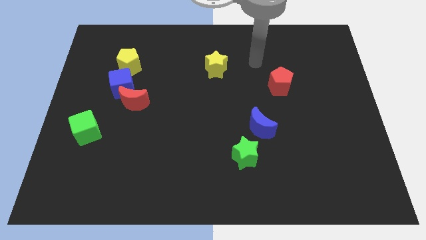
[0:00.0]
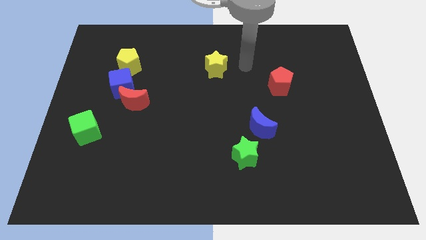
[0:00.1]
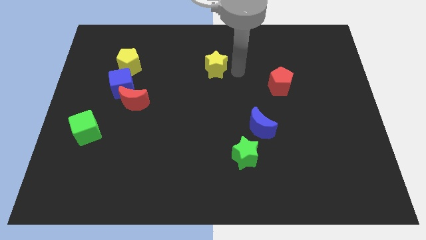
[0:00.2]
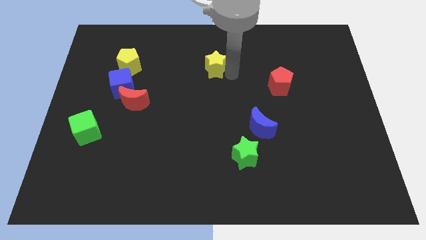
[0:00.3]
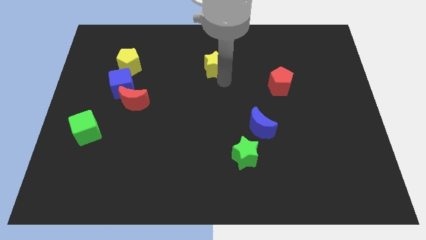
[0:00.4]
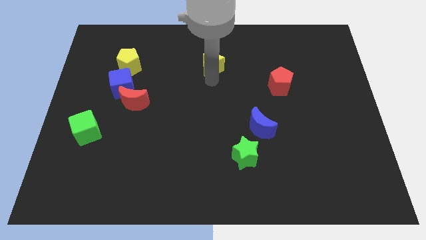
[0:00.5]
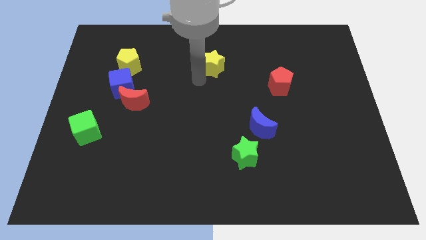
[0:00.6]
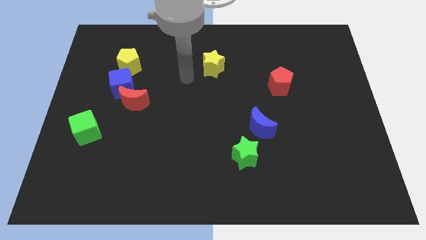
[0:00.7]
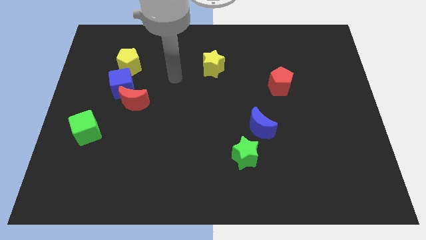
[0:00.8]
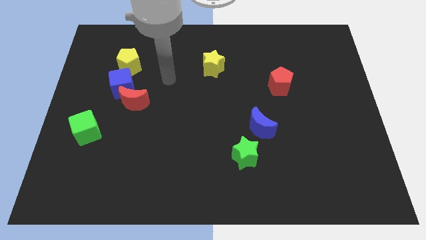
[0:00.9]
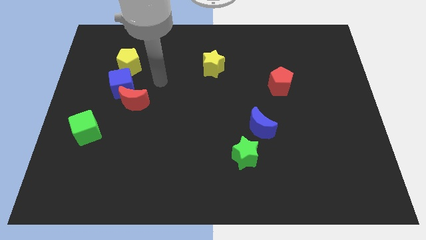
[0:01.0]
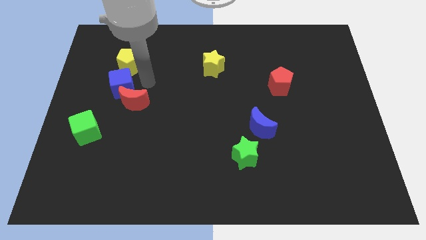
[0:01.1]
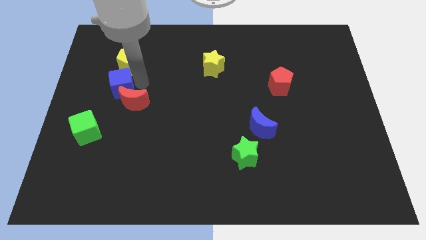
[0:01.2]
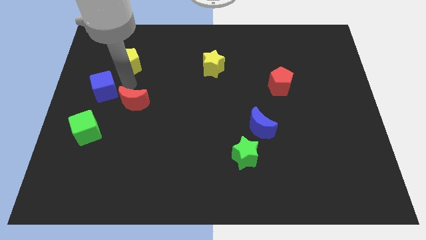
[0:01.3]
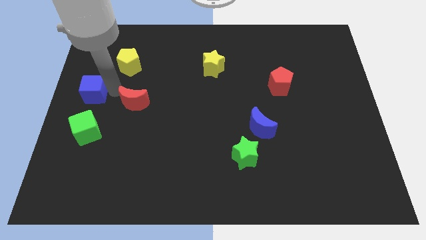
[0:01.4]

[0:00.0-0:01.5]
separate the red moon from the blue cube

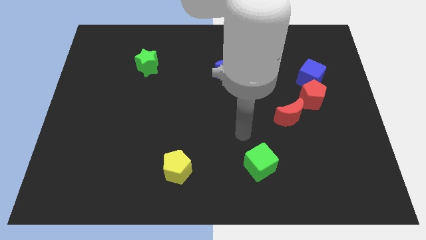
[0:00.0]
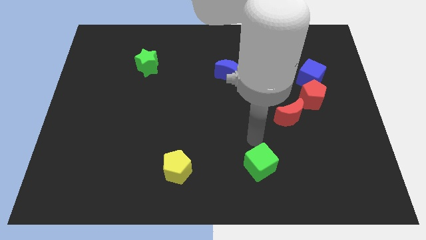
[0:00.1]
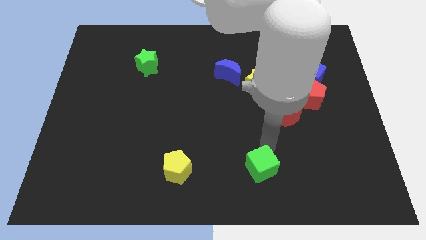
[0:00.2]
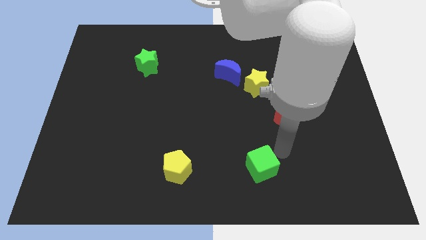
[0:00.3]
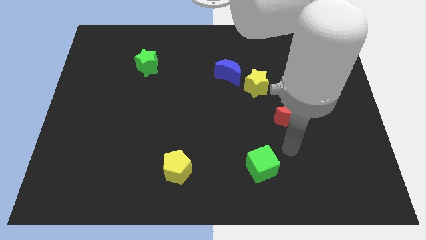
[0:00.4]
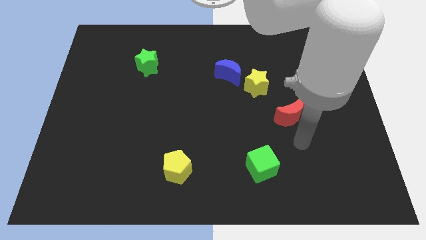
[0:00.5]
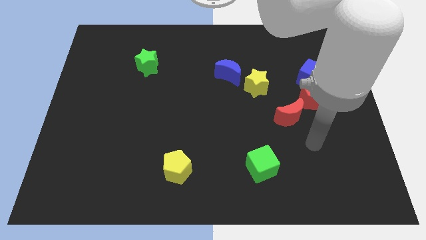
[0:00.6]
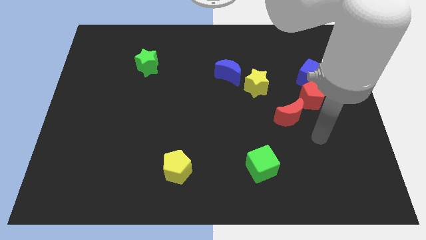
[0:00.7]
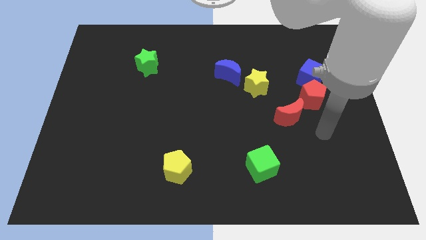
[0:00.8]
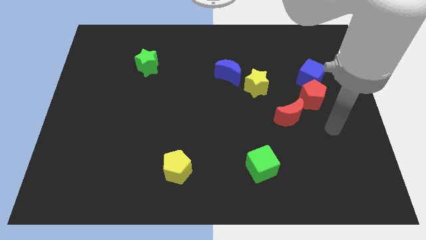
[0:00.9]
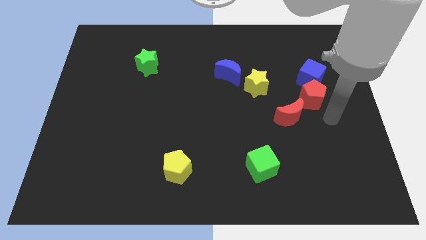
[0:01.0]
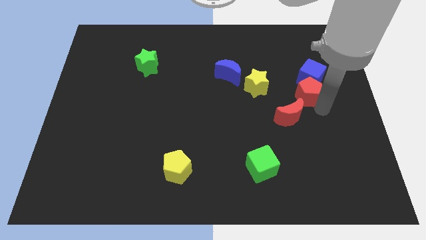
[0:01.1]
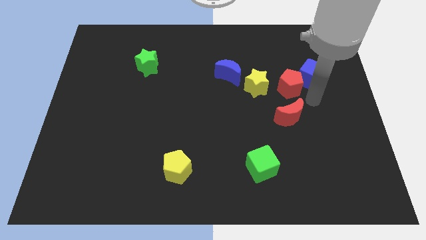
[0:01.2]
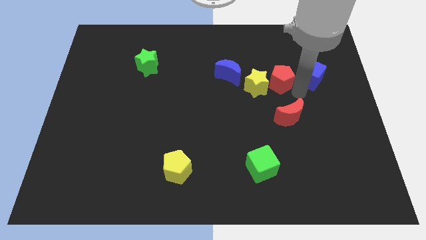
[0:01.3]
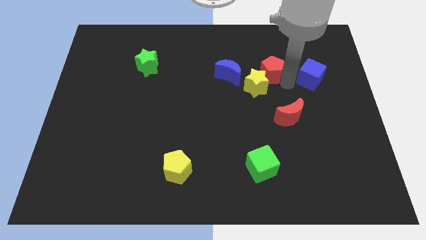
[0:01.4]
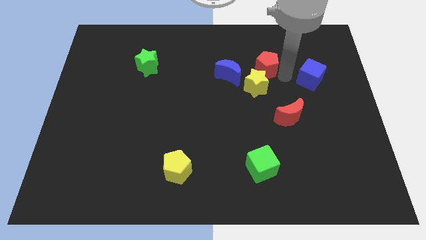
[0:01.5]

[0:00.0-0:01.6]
separate the blue cube from the red pentagon

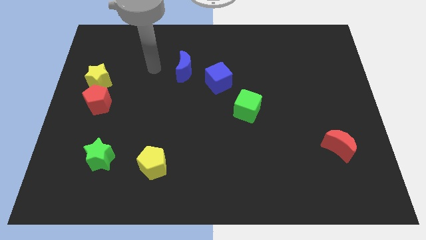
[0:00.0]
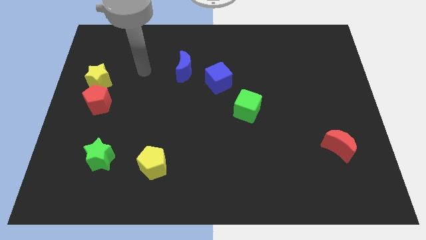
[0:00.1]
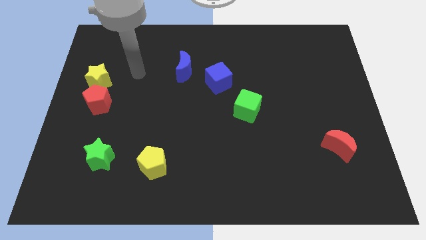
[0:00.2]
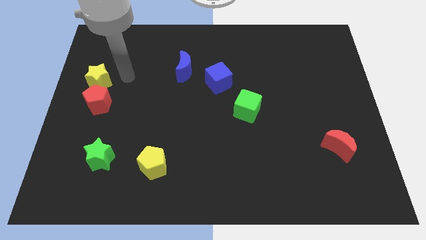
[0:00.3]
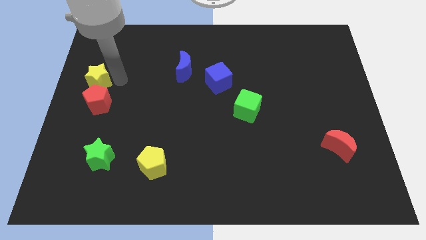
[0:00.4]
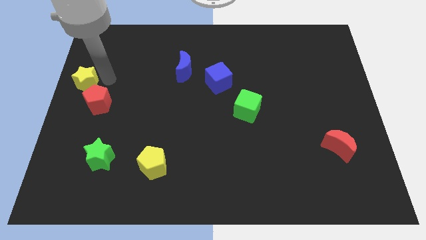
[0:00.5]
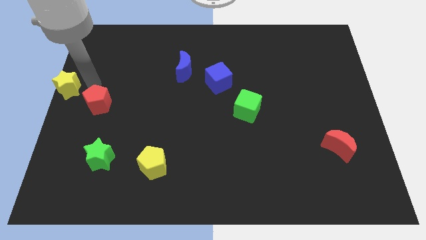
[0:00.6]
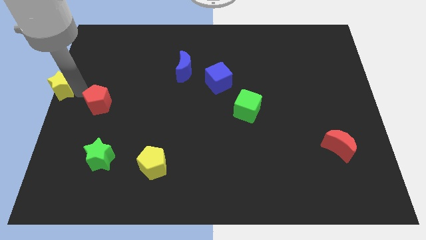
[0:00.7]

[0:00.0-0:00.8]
separate the red pentagon from the yellow star

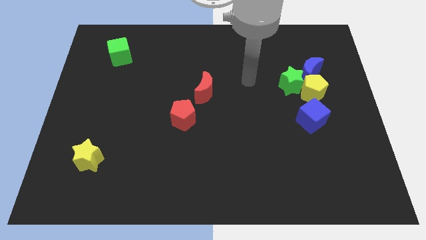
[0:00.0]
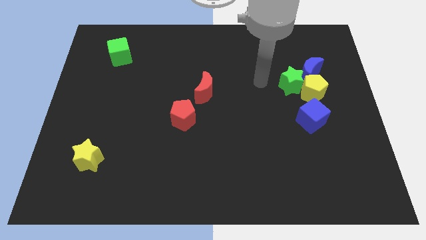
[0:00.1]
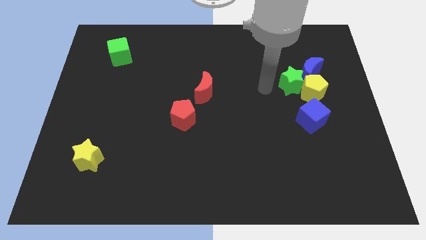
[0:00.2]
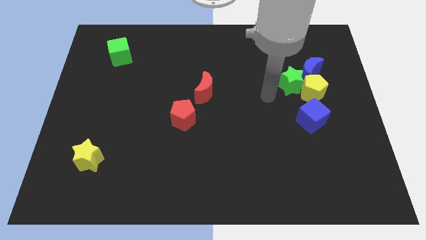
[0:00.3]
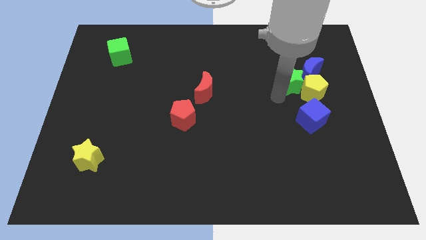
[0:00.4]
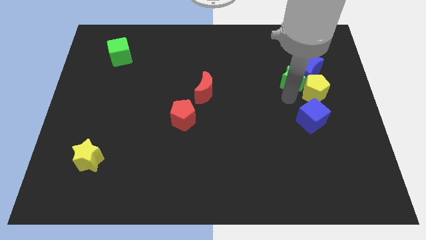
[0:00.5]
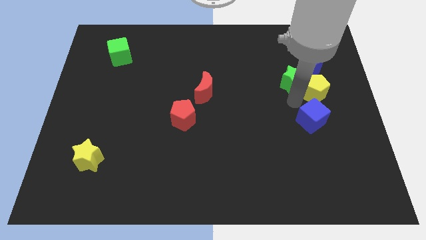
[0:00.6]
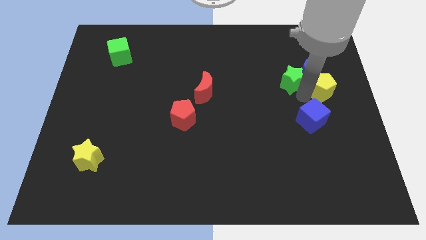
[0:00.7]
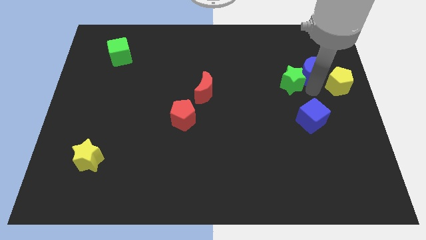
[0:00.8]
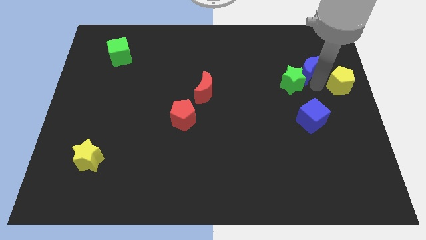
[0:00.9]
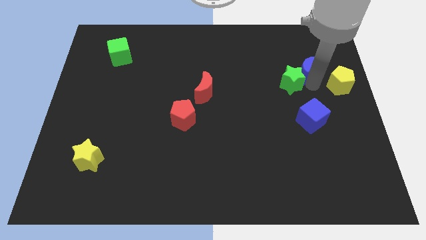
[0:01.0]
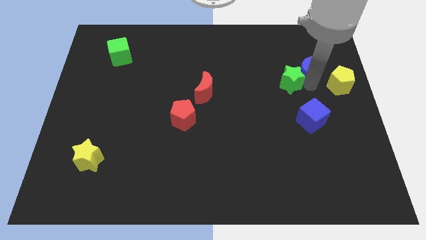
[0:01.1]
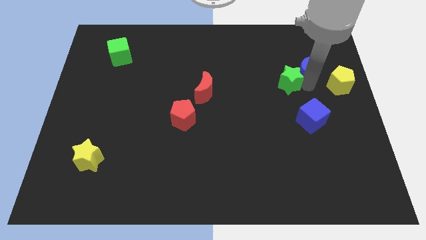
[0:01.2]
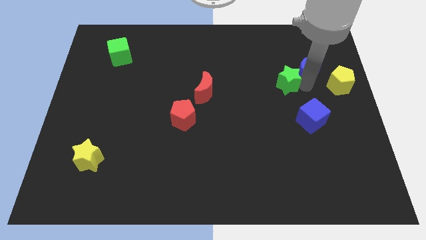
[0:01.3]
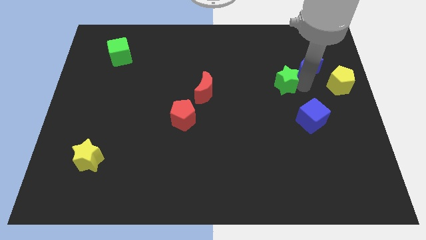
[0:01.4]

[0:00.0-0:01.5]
move the green star away from the yellow pentagon and blue moon

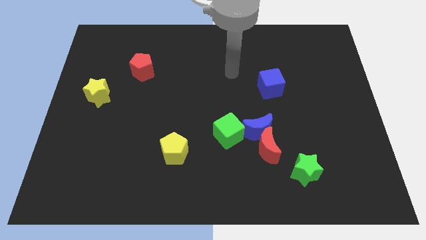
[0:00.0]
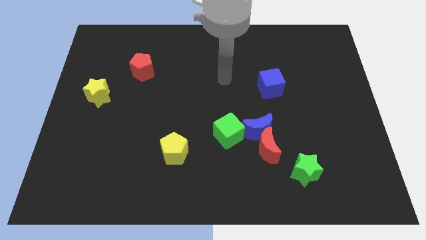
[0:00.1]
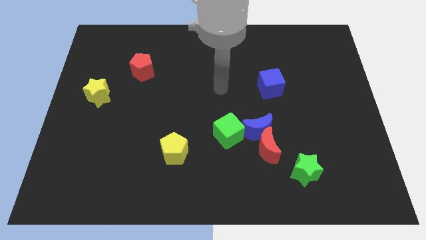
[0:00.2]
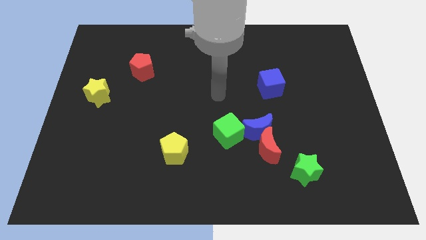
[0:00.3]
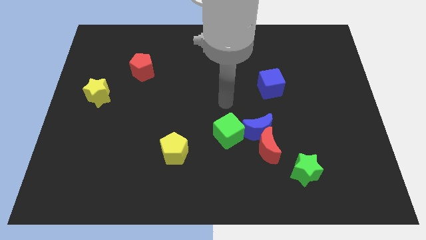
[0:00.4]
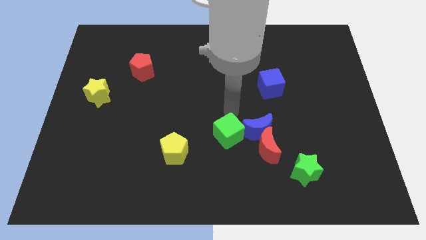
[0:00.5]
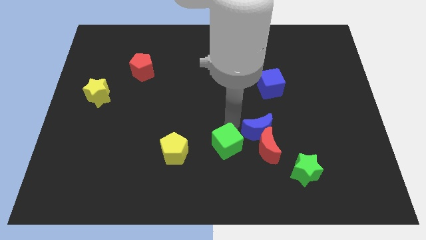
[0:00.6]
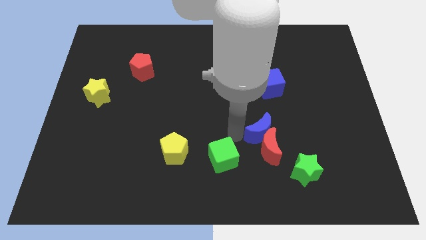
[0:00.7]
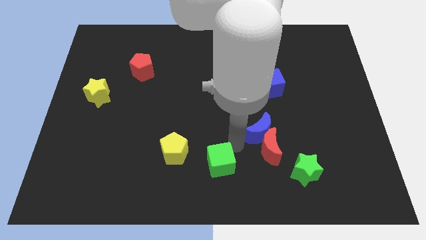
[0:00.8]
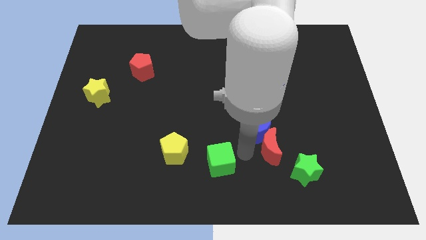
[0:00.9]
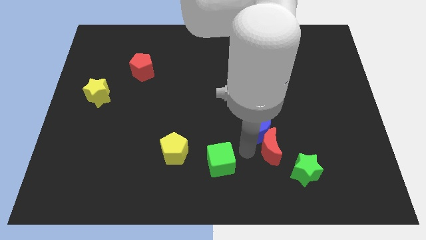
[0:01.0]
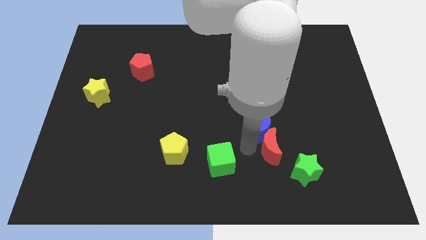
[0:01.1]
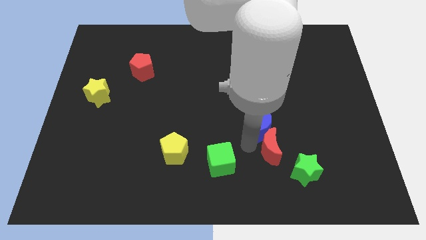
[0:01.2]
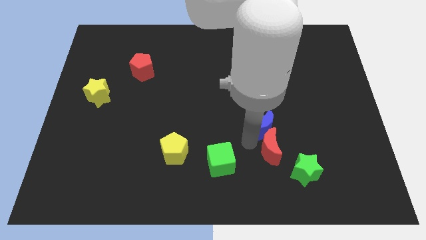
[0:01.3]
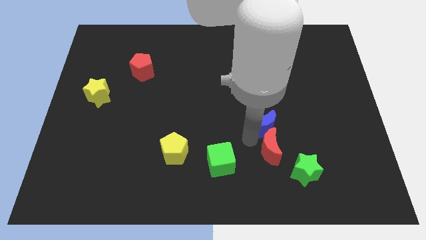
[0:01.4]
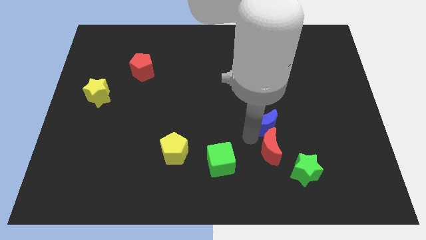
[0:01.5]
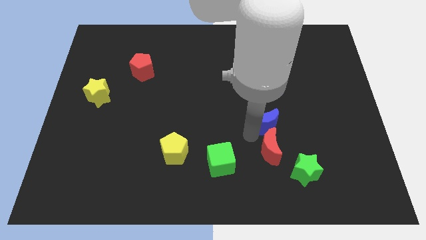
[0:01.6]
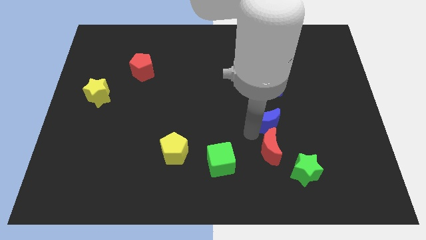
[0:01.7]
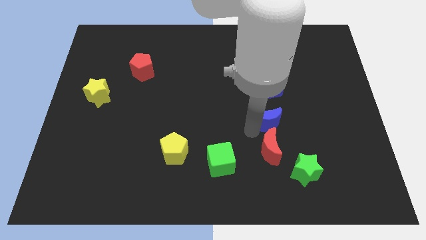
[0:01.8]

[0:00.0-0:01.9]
move the blue moon away from the red moon and green cube

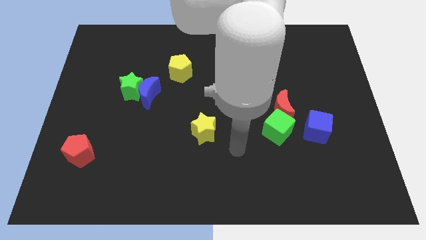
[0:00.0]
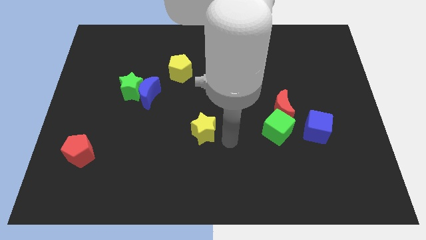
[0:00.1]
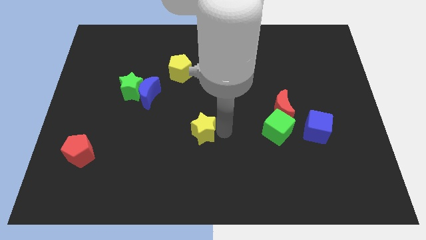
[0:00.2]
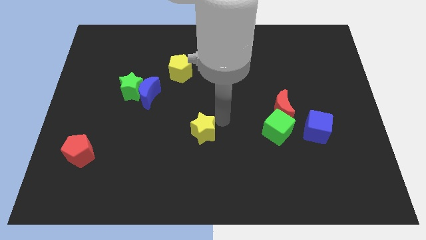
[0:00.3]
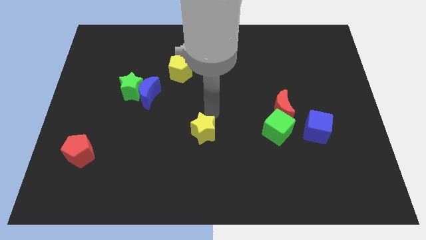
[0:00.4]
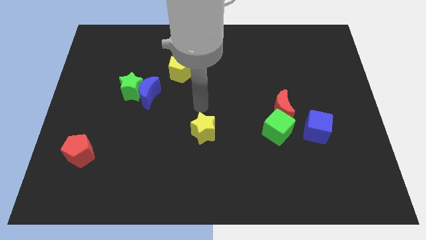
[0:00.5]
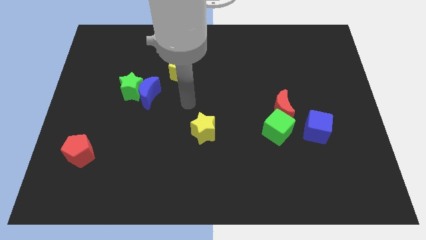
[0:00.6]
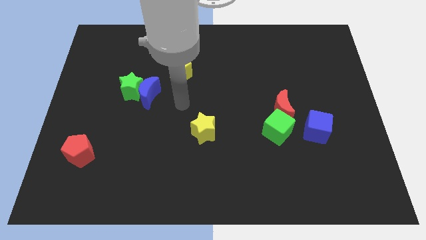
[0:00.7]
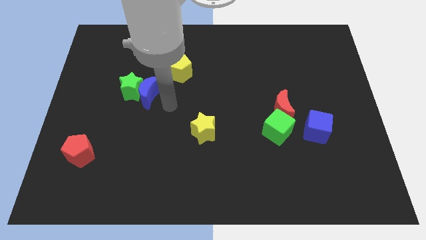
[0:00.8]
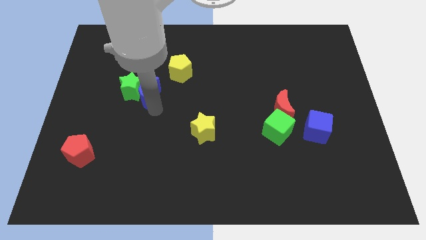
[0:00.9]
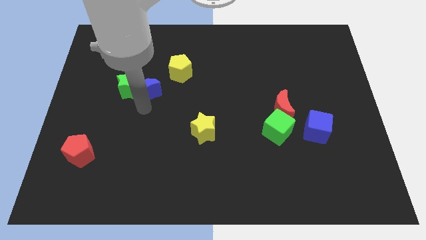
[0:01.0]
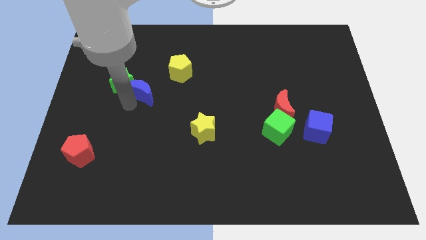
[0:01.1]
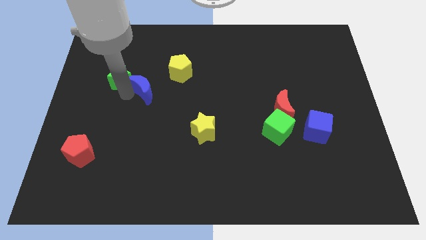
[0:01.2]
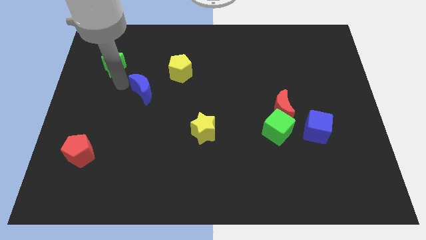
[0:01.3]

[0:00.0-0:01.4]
pull the blue moon apart from the green star

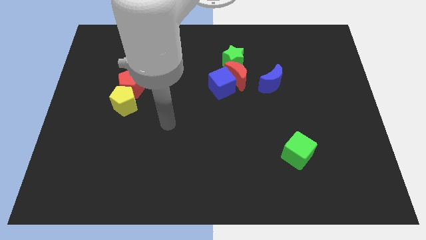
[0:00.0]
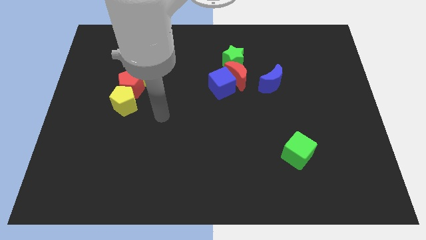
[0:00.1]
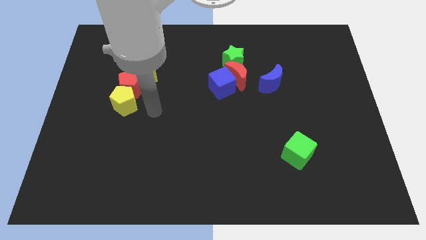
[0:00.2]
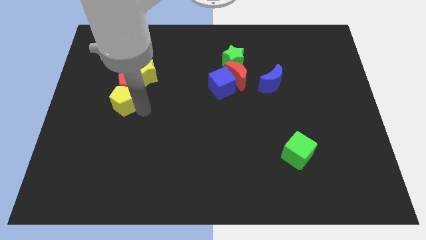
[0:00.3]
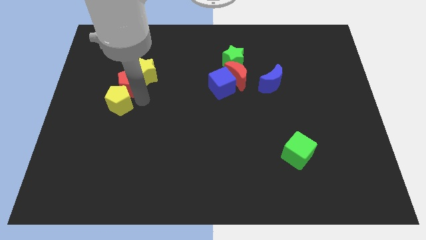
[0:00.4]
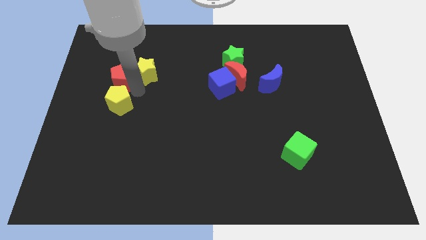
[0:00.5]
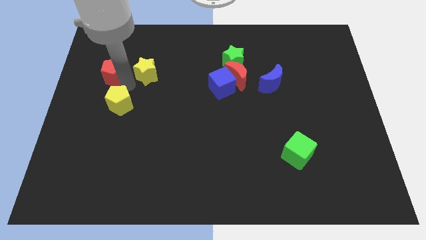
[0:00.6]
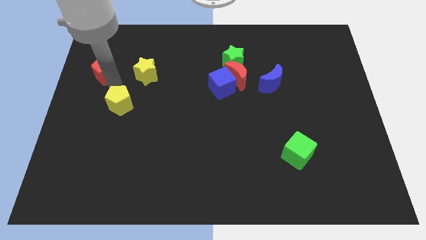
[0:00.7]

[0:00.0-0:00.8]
move the yellow pentagon away from the red pentagon
